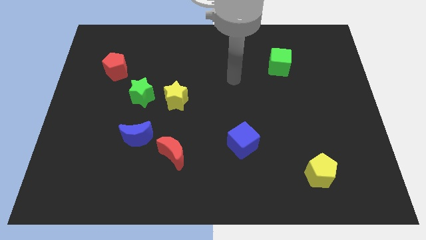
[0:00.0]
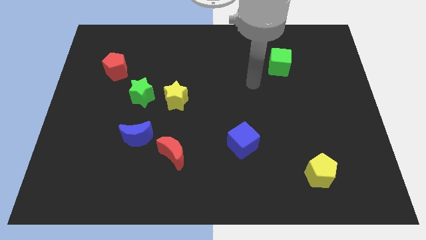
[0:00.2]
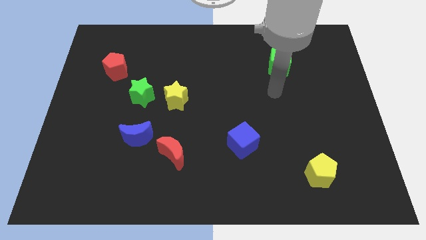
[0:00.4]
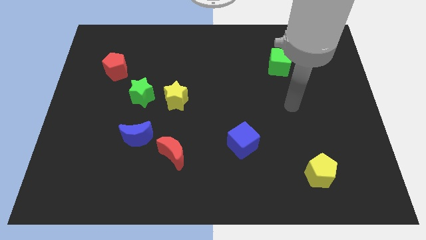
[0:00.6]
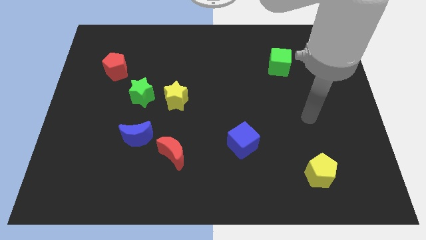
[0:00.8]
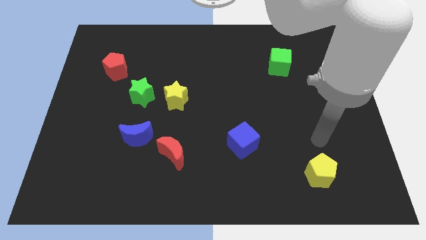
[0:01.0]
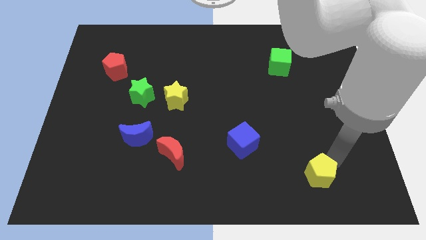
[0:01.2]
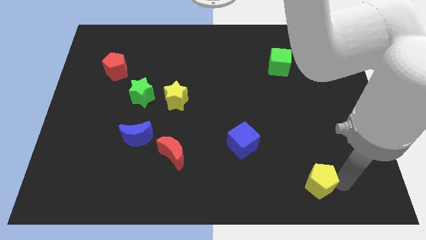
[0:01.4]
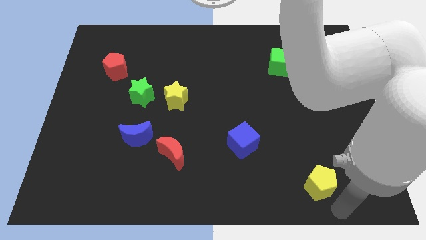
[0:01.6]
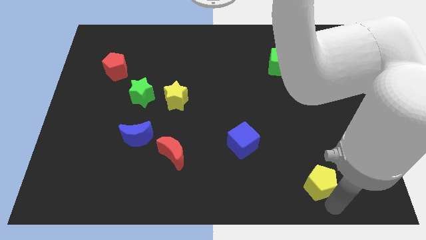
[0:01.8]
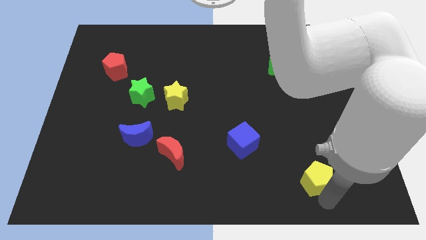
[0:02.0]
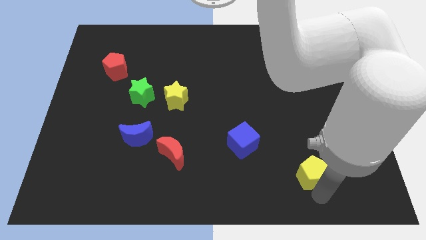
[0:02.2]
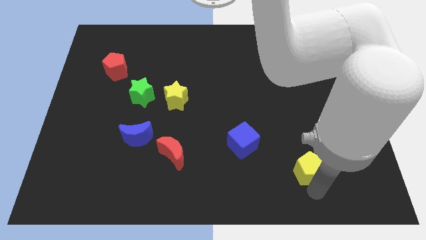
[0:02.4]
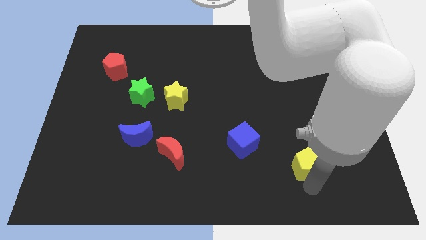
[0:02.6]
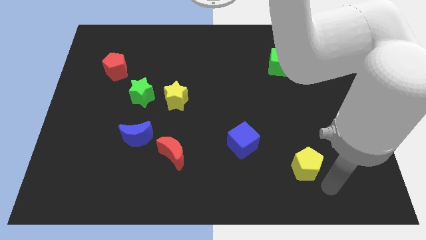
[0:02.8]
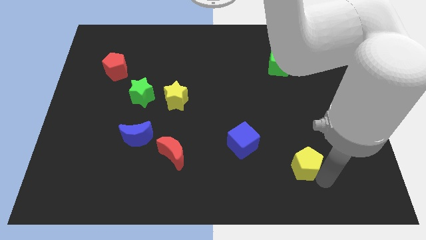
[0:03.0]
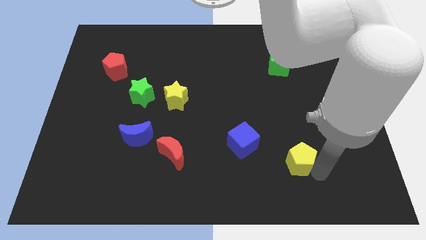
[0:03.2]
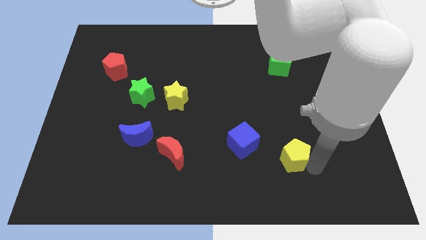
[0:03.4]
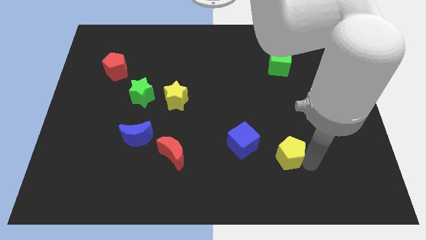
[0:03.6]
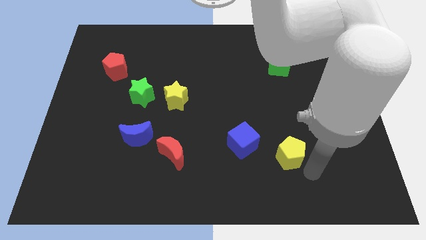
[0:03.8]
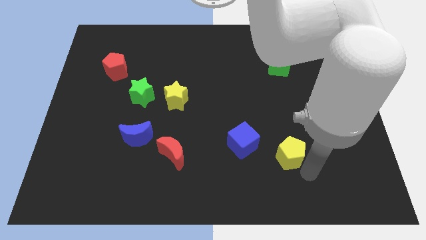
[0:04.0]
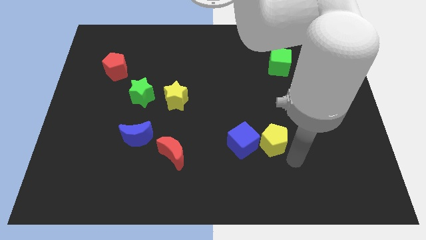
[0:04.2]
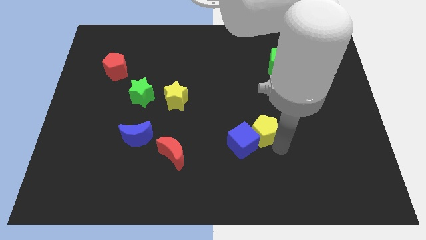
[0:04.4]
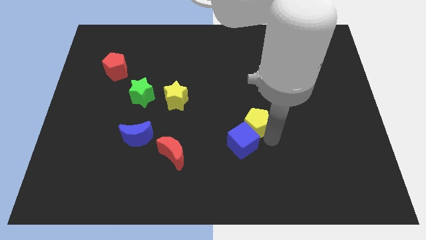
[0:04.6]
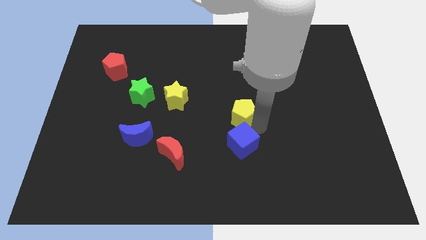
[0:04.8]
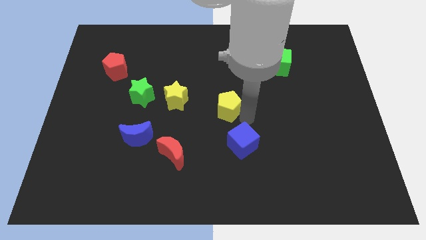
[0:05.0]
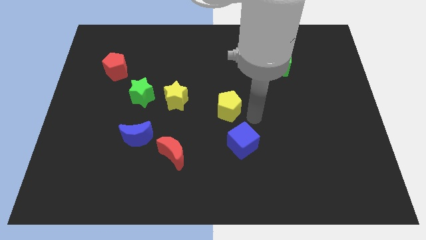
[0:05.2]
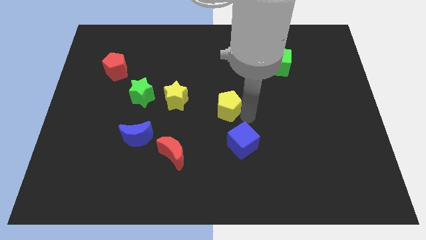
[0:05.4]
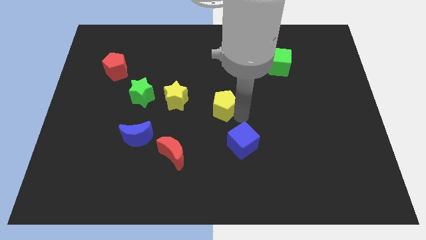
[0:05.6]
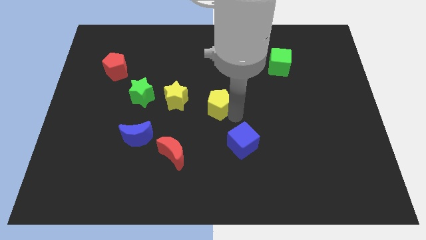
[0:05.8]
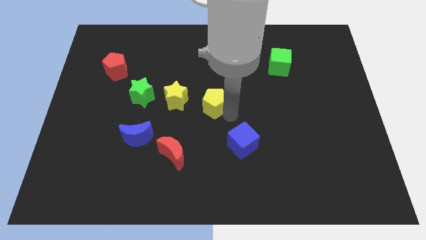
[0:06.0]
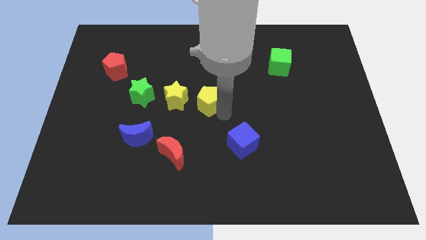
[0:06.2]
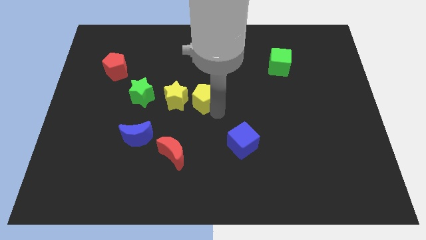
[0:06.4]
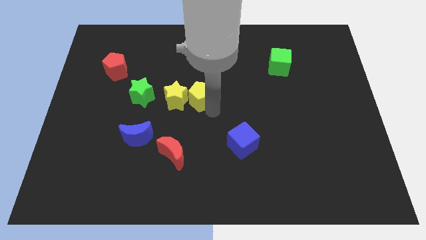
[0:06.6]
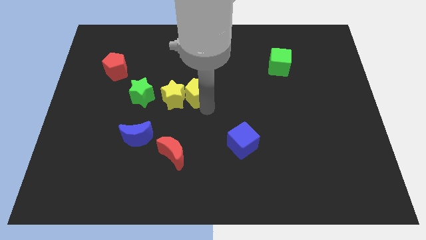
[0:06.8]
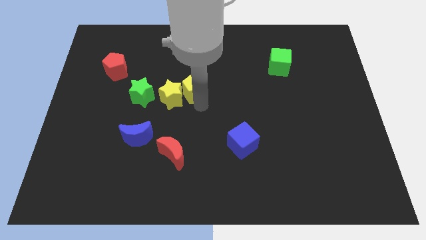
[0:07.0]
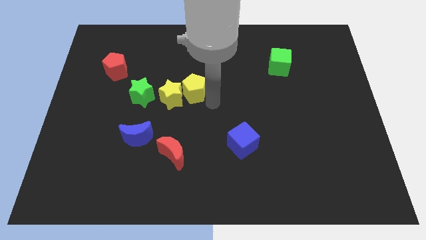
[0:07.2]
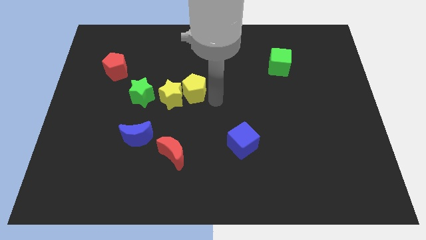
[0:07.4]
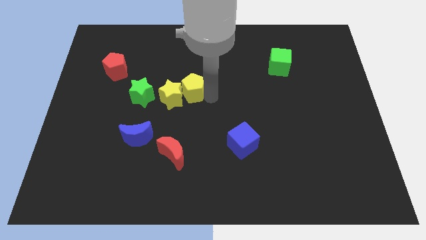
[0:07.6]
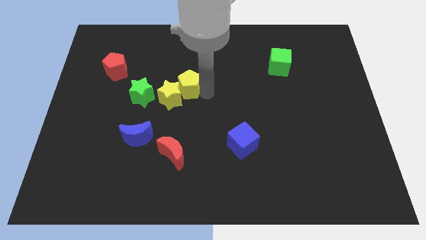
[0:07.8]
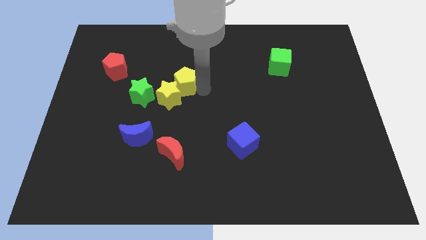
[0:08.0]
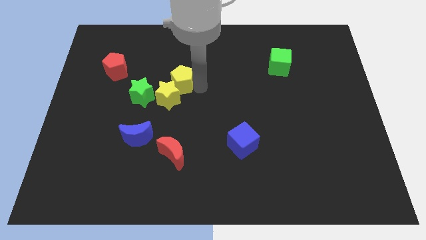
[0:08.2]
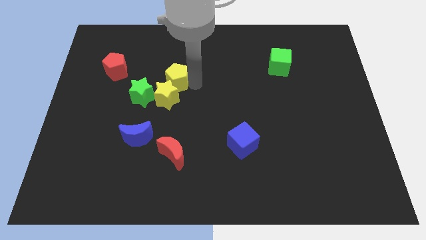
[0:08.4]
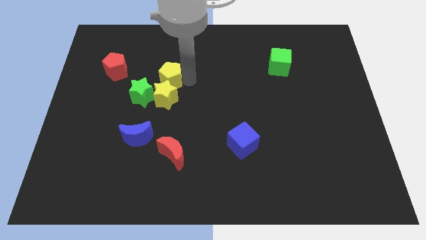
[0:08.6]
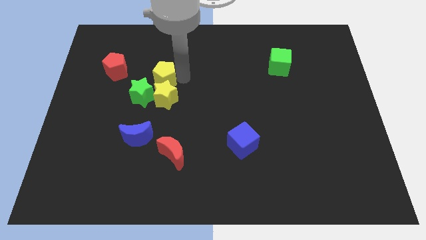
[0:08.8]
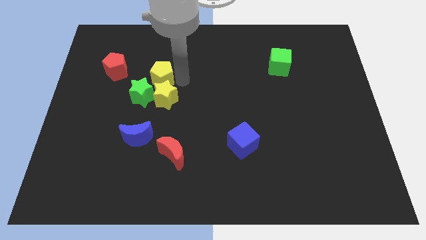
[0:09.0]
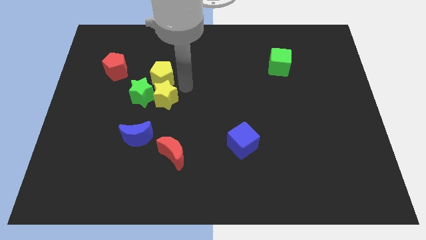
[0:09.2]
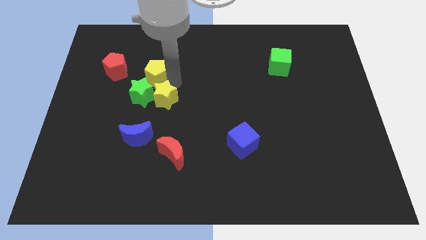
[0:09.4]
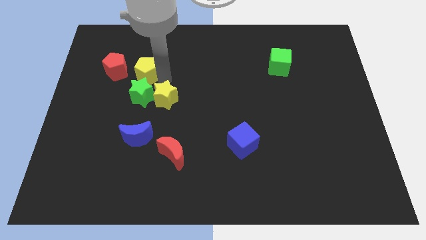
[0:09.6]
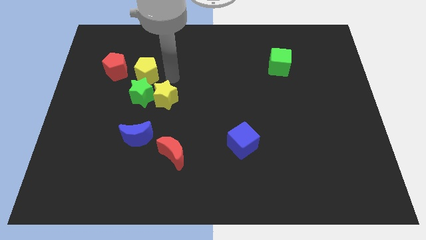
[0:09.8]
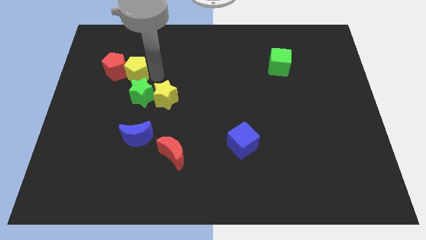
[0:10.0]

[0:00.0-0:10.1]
slide the yellow pentagon next to the red pentagon

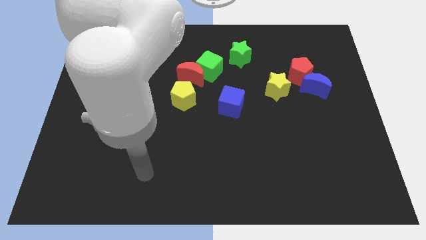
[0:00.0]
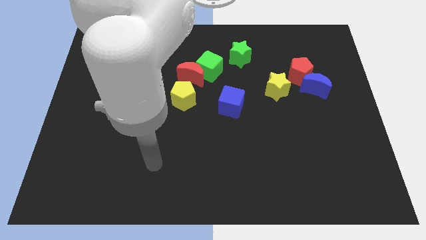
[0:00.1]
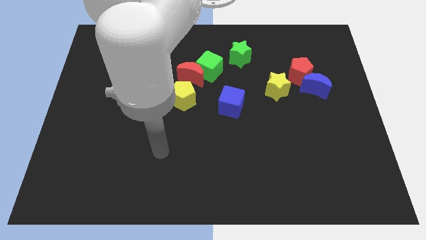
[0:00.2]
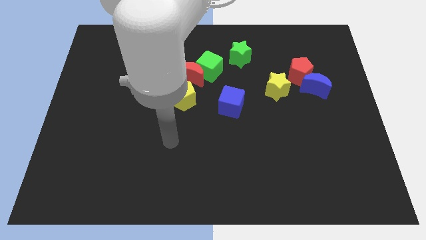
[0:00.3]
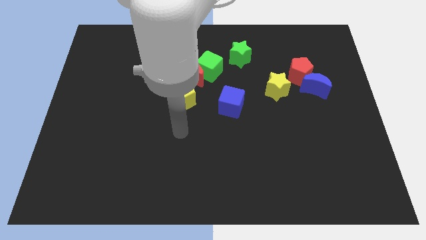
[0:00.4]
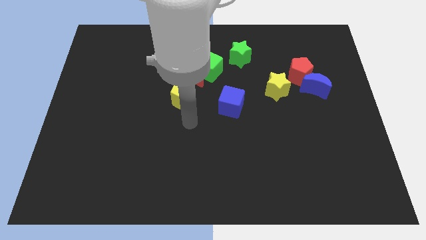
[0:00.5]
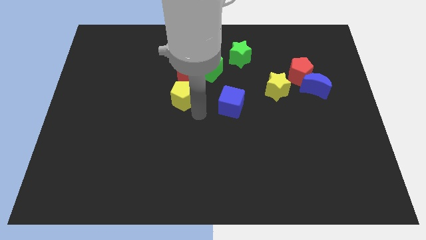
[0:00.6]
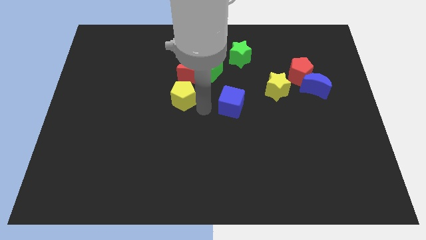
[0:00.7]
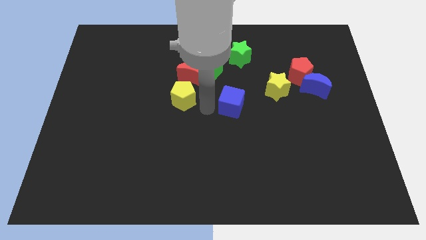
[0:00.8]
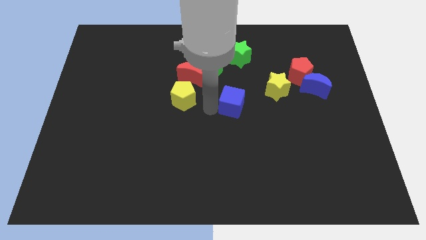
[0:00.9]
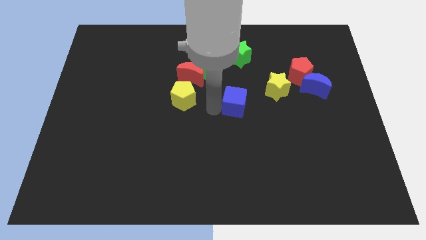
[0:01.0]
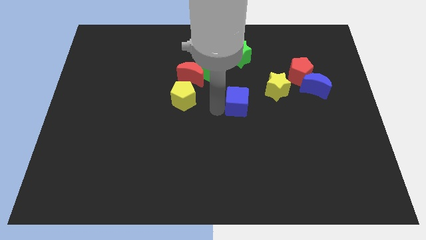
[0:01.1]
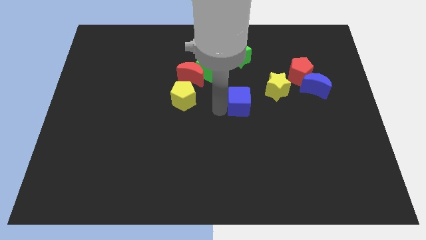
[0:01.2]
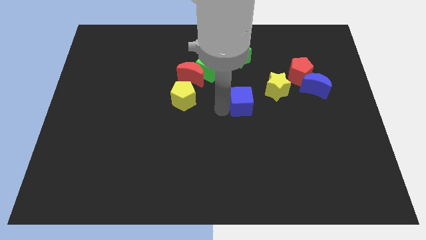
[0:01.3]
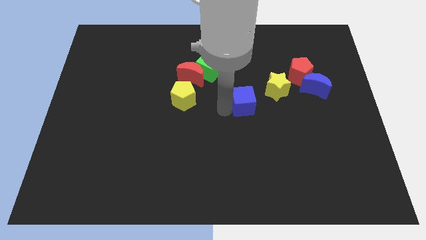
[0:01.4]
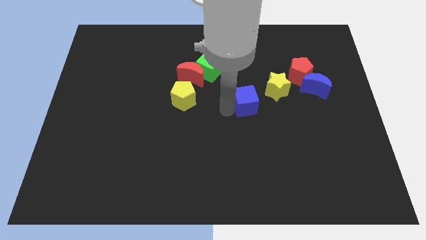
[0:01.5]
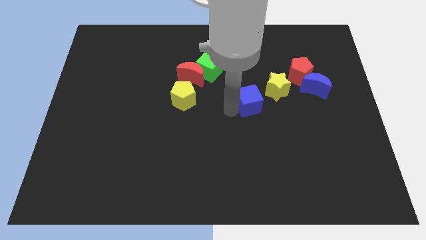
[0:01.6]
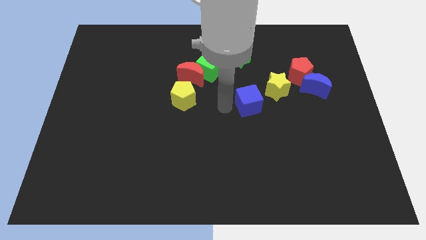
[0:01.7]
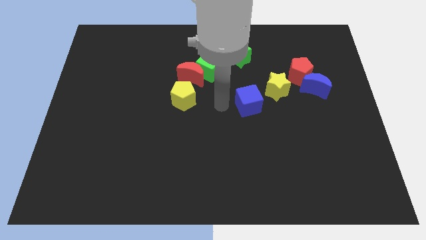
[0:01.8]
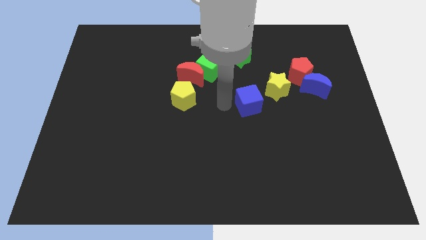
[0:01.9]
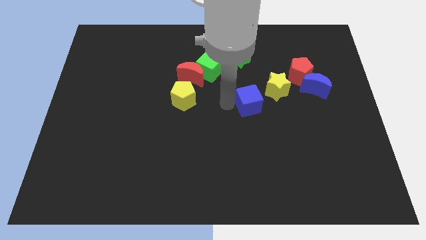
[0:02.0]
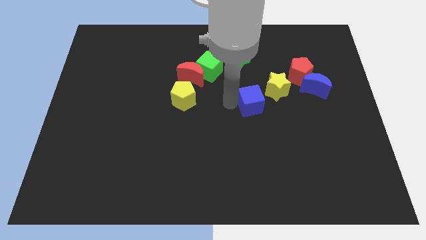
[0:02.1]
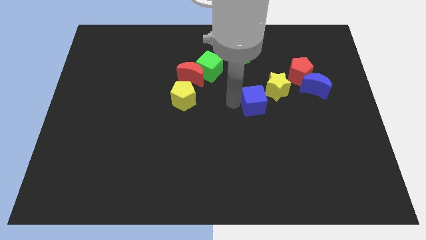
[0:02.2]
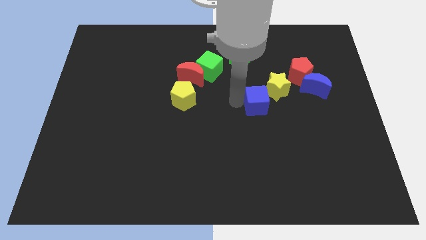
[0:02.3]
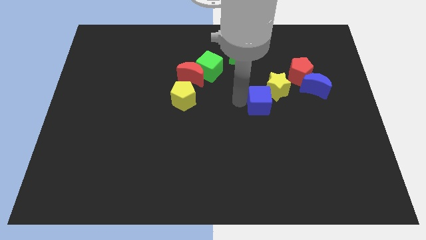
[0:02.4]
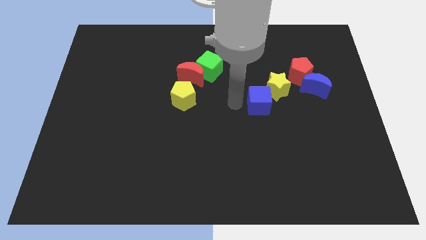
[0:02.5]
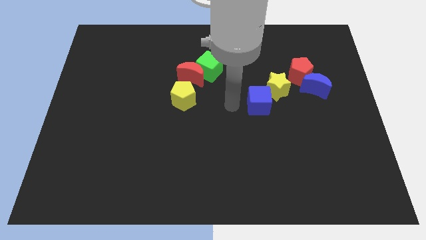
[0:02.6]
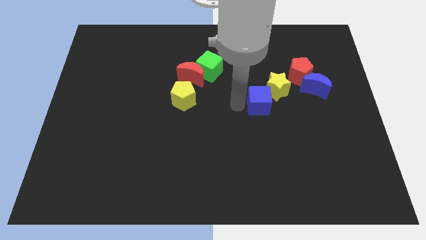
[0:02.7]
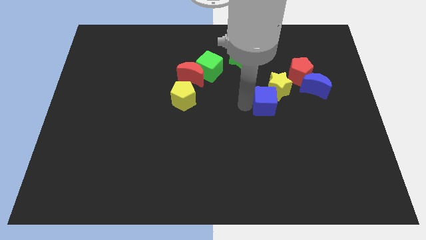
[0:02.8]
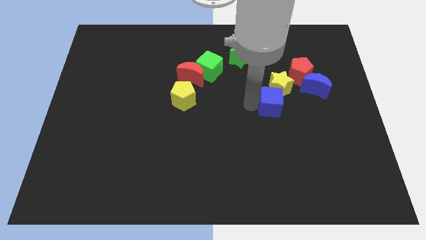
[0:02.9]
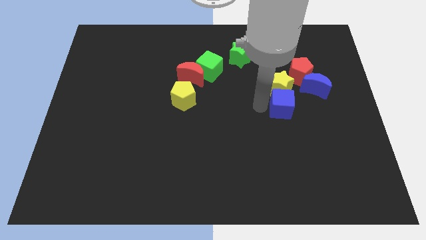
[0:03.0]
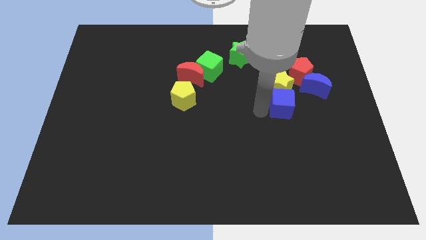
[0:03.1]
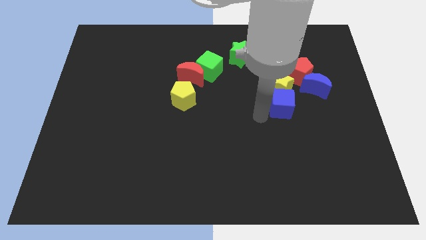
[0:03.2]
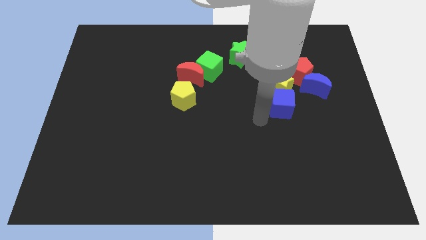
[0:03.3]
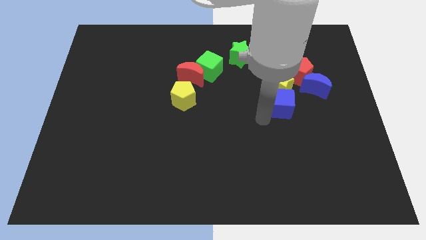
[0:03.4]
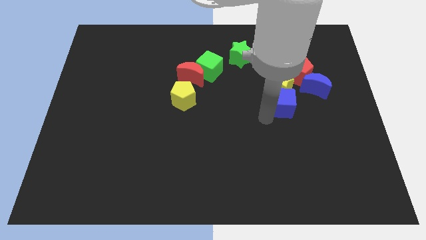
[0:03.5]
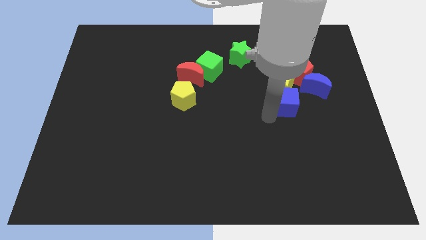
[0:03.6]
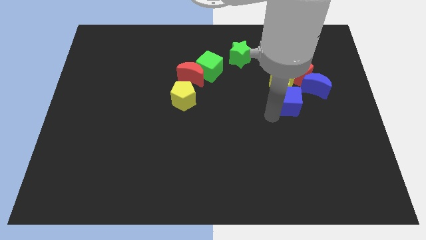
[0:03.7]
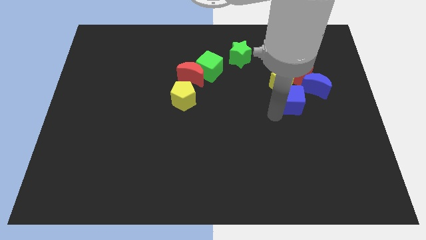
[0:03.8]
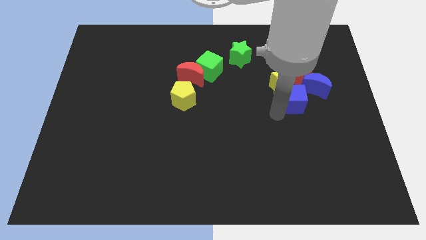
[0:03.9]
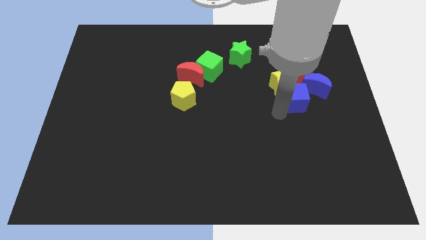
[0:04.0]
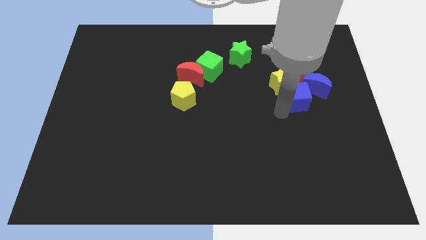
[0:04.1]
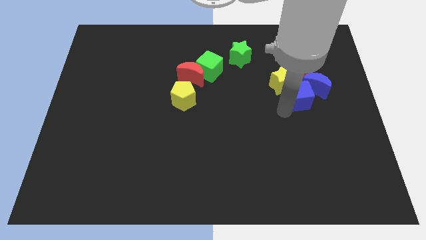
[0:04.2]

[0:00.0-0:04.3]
move the blue cube next to the blue moon
